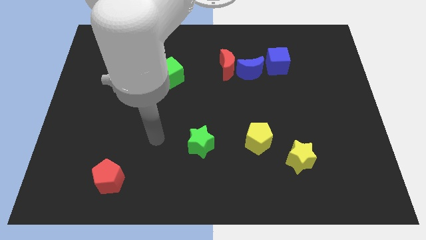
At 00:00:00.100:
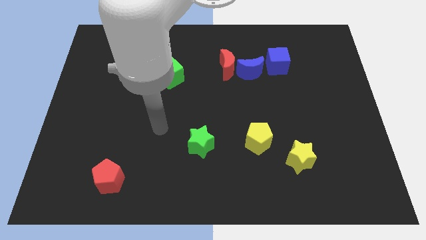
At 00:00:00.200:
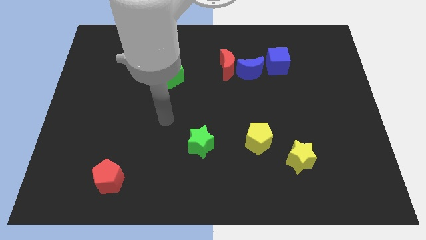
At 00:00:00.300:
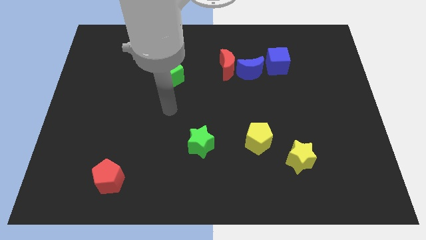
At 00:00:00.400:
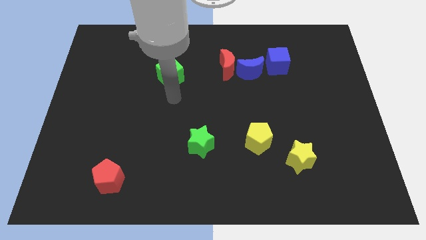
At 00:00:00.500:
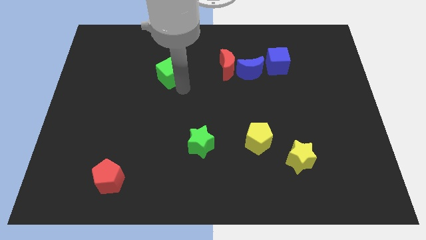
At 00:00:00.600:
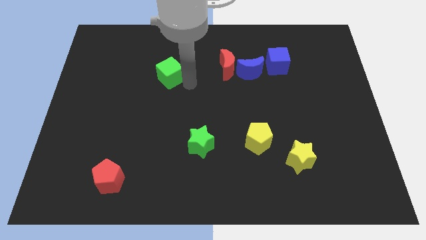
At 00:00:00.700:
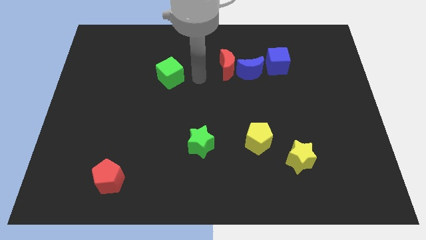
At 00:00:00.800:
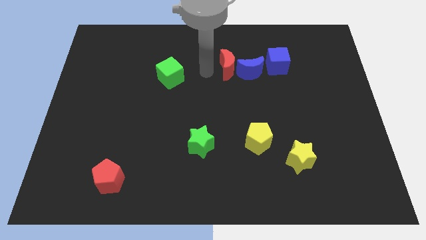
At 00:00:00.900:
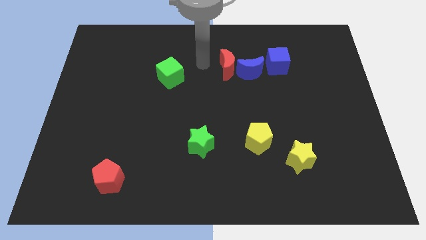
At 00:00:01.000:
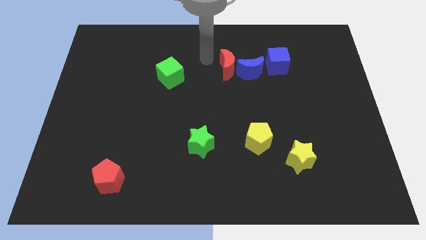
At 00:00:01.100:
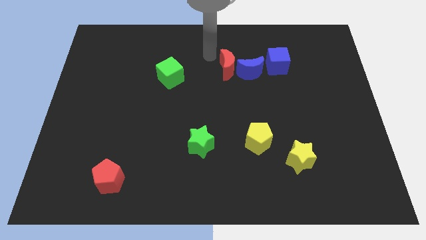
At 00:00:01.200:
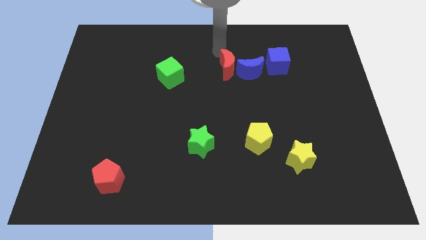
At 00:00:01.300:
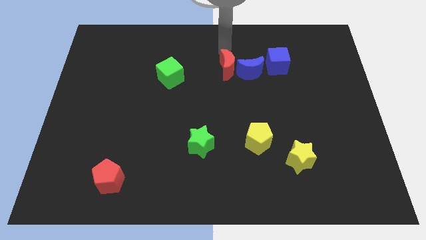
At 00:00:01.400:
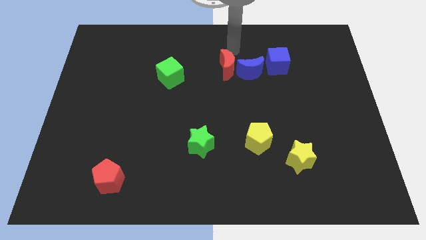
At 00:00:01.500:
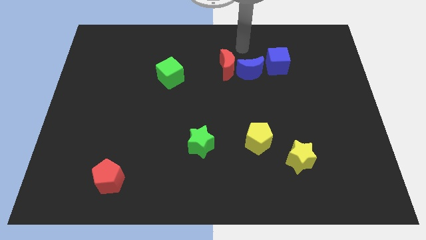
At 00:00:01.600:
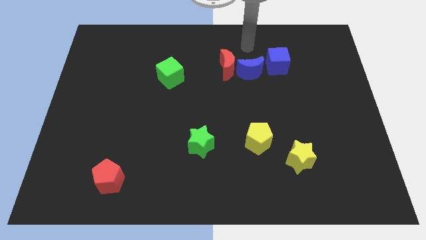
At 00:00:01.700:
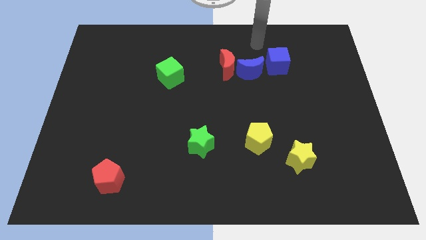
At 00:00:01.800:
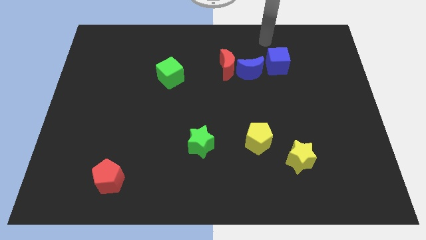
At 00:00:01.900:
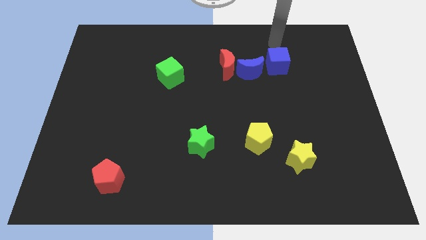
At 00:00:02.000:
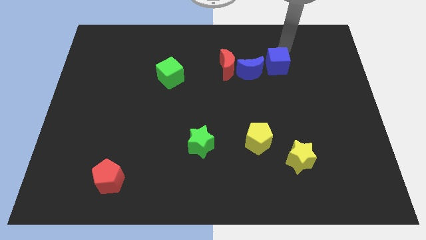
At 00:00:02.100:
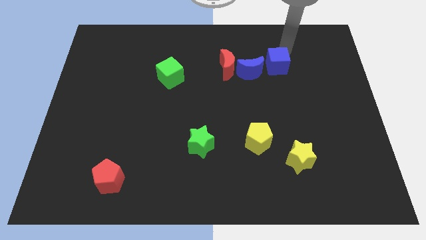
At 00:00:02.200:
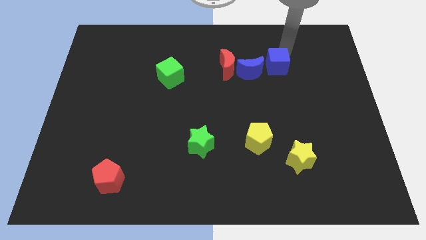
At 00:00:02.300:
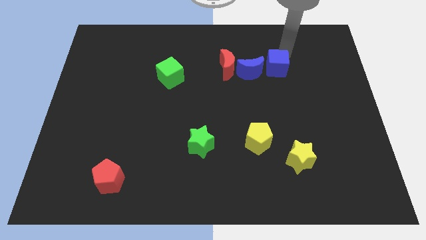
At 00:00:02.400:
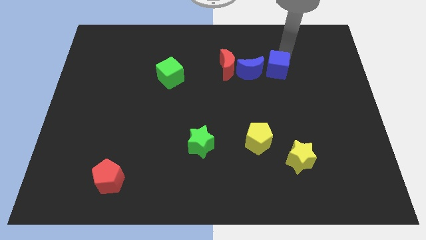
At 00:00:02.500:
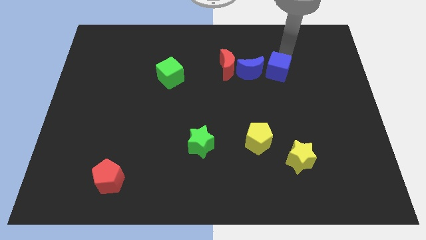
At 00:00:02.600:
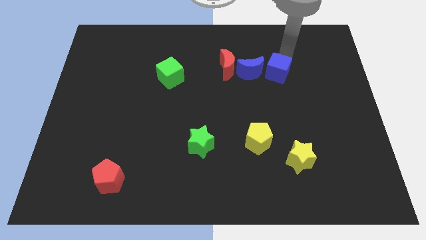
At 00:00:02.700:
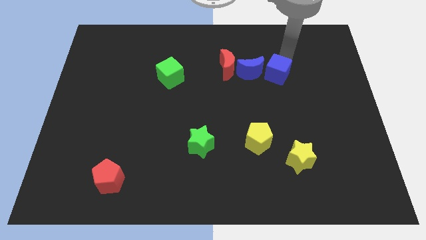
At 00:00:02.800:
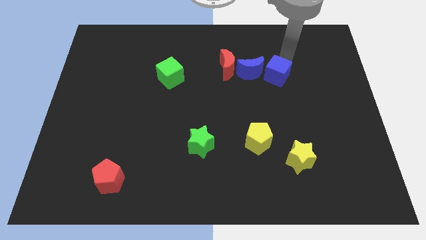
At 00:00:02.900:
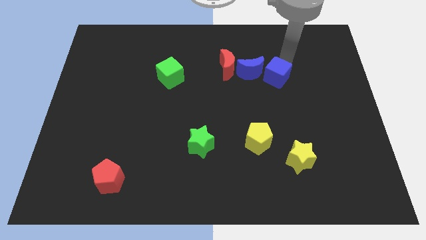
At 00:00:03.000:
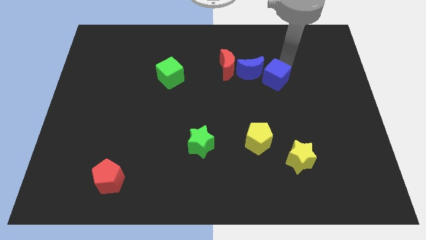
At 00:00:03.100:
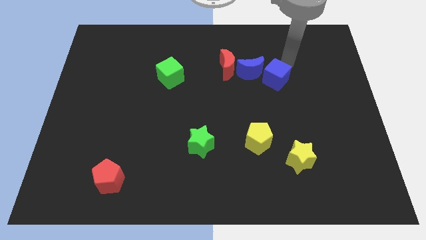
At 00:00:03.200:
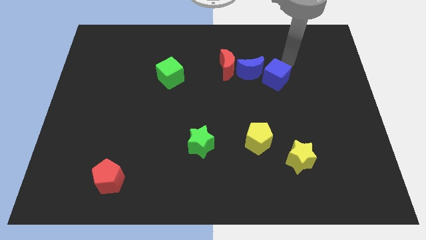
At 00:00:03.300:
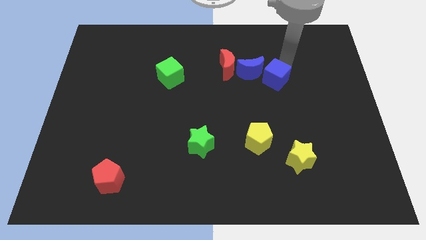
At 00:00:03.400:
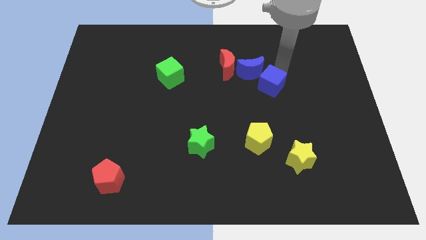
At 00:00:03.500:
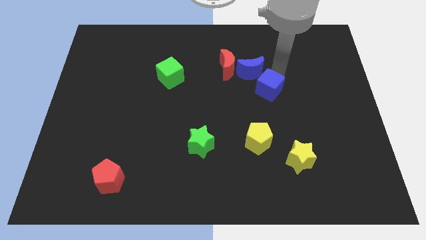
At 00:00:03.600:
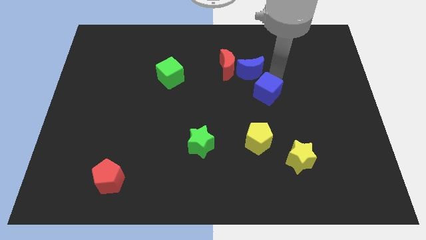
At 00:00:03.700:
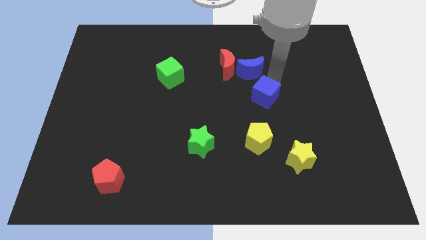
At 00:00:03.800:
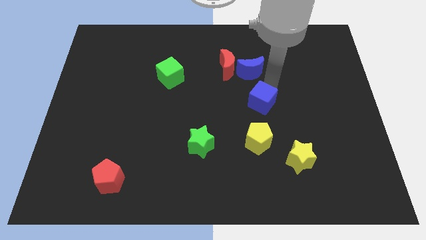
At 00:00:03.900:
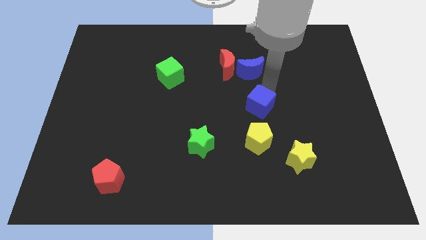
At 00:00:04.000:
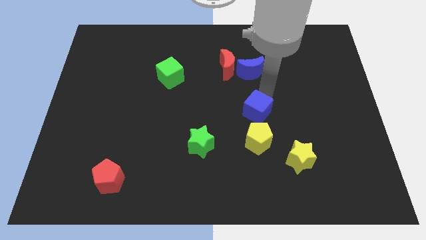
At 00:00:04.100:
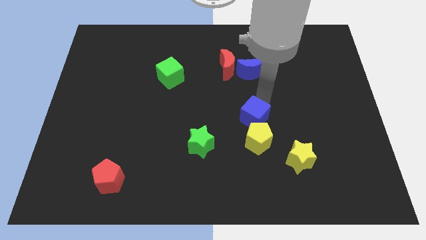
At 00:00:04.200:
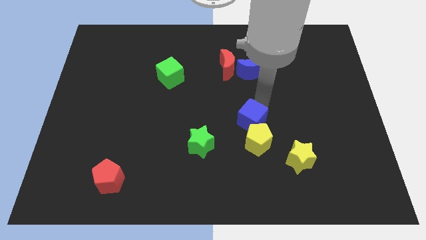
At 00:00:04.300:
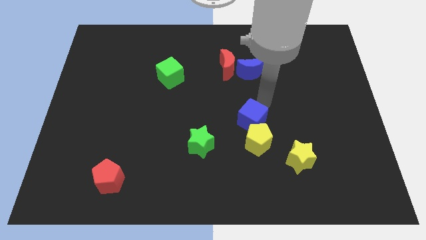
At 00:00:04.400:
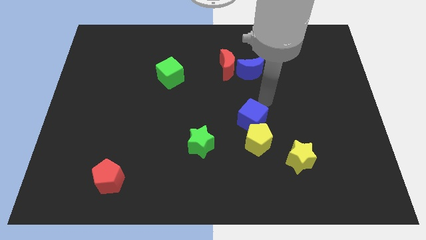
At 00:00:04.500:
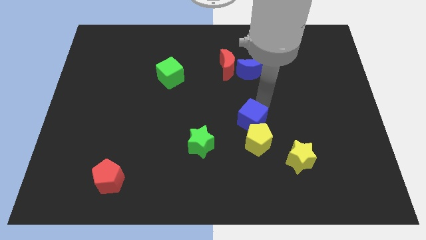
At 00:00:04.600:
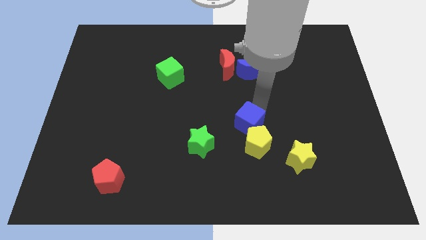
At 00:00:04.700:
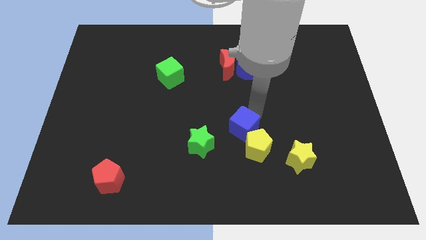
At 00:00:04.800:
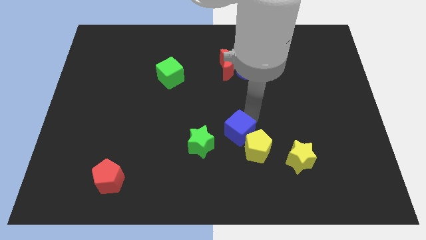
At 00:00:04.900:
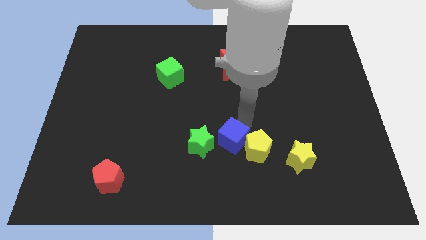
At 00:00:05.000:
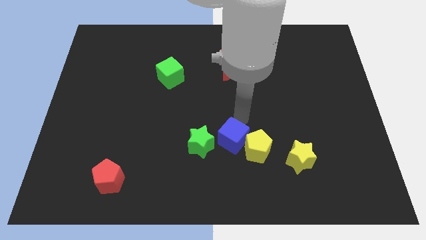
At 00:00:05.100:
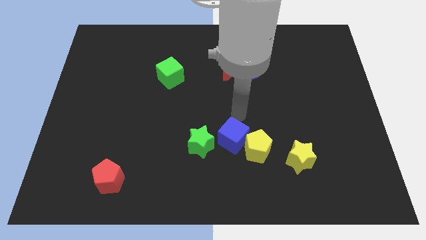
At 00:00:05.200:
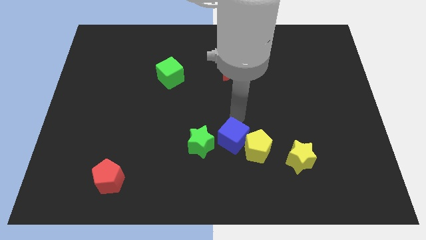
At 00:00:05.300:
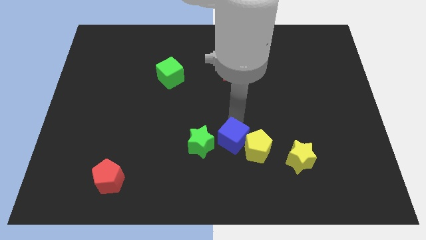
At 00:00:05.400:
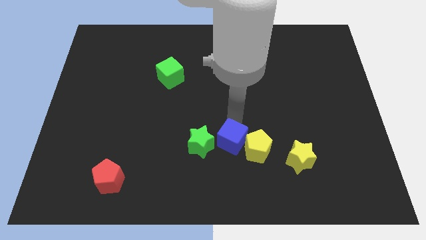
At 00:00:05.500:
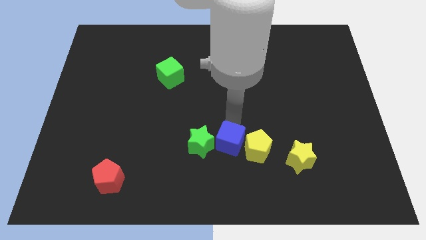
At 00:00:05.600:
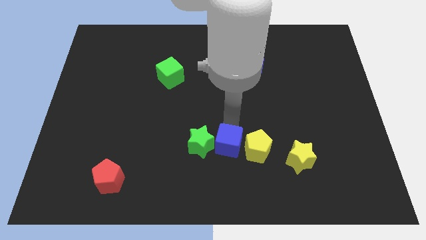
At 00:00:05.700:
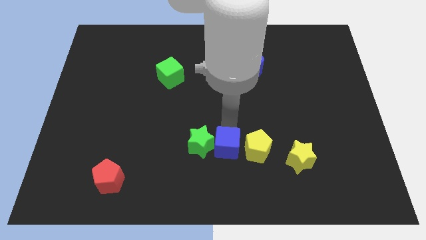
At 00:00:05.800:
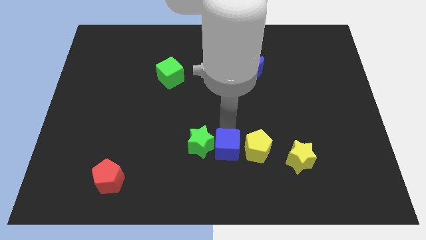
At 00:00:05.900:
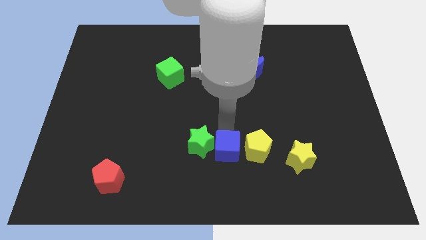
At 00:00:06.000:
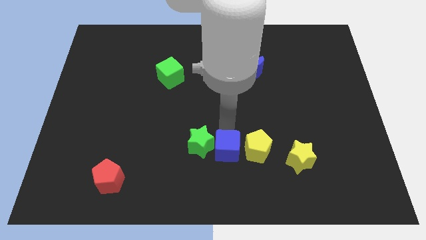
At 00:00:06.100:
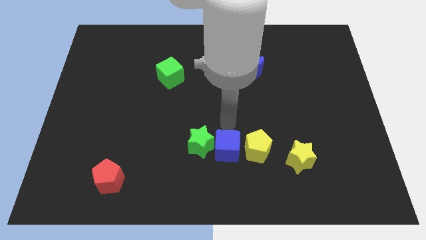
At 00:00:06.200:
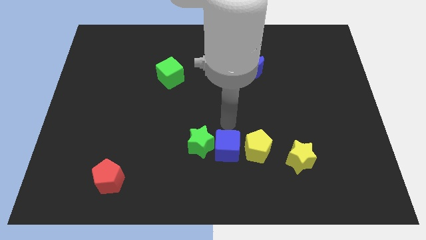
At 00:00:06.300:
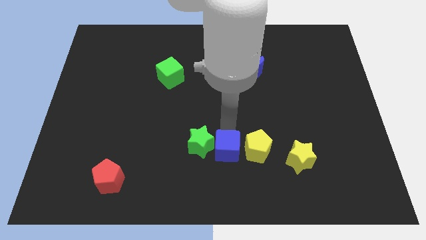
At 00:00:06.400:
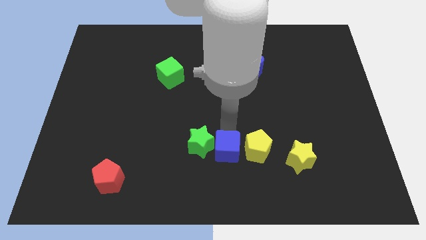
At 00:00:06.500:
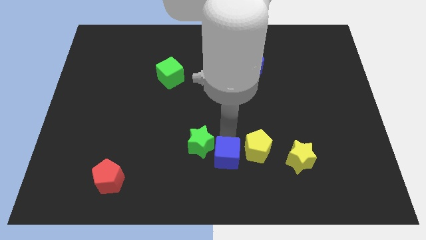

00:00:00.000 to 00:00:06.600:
put the blue cube to the bottom
